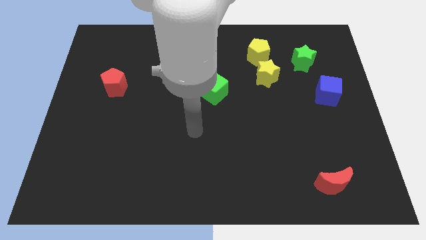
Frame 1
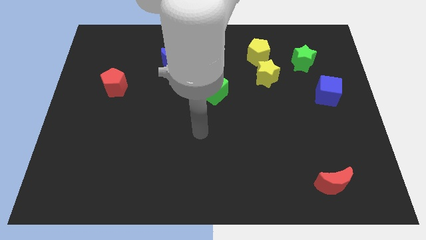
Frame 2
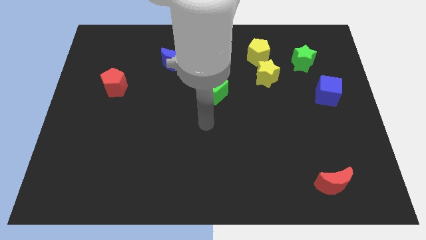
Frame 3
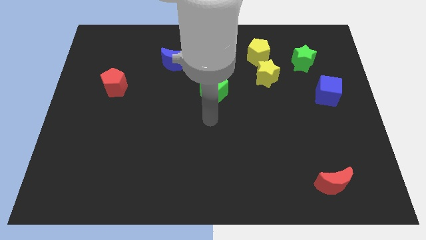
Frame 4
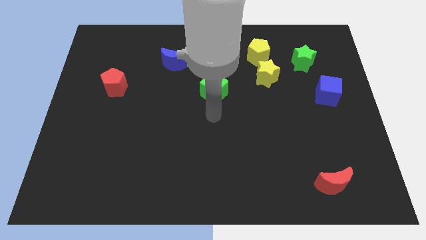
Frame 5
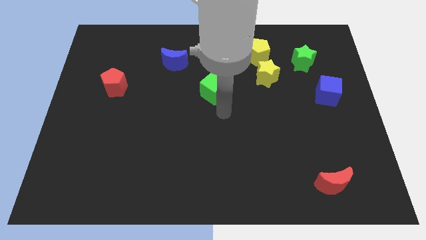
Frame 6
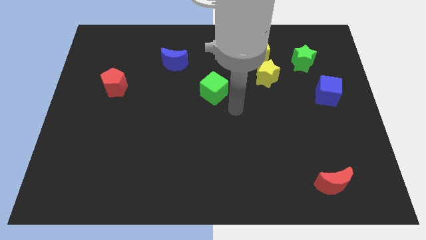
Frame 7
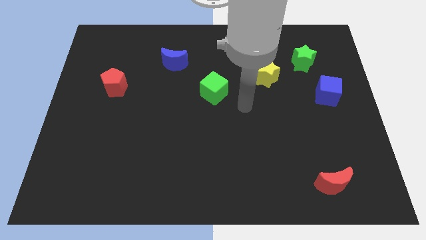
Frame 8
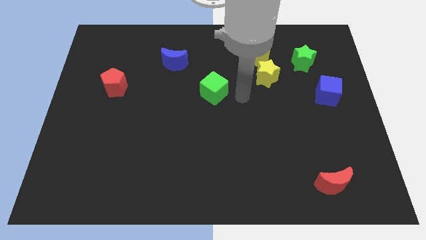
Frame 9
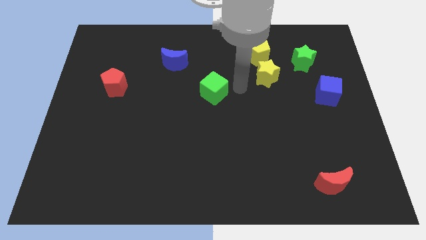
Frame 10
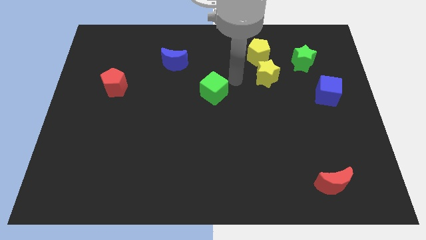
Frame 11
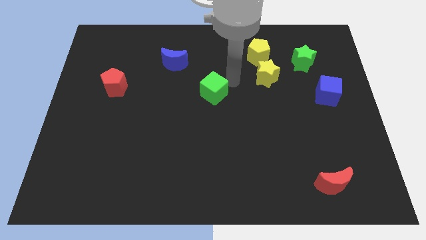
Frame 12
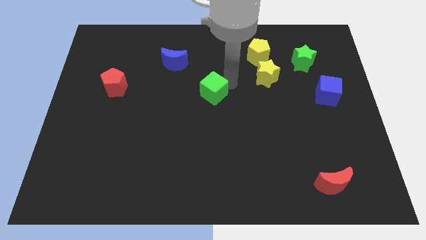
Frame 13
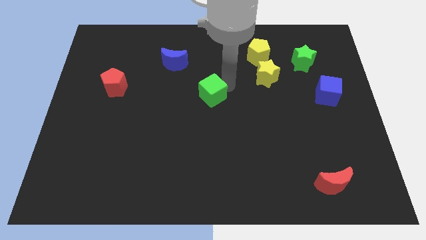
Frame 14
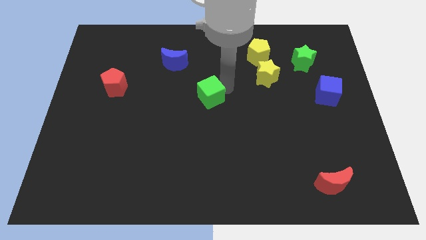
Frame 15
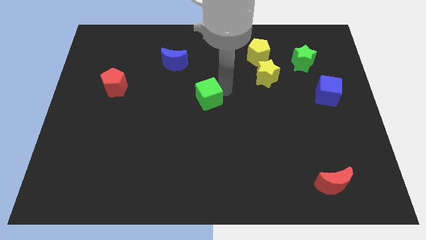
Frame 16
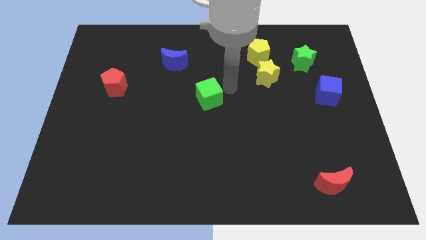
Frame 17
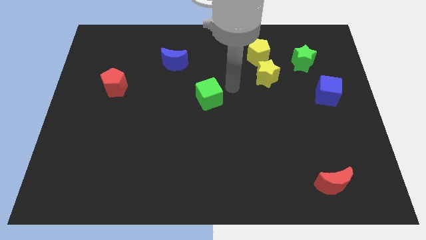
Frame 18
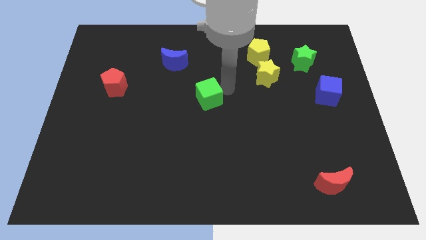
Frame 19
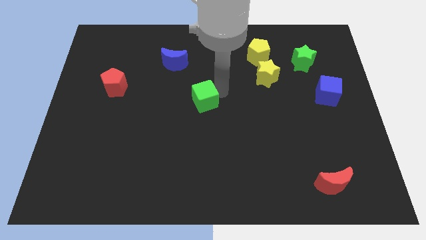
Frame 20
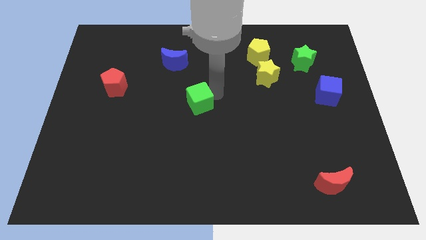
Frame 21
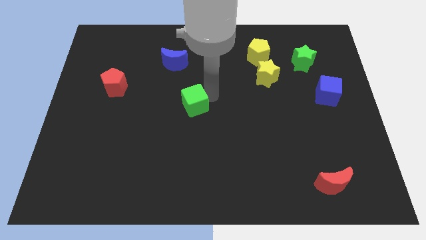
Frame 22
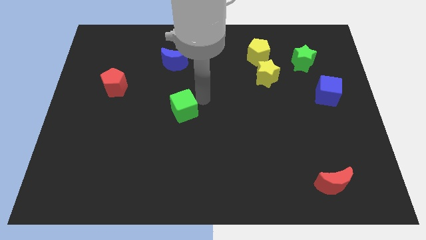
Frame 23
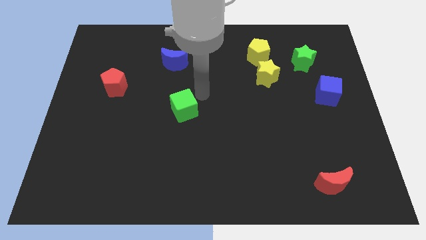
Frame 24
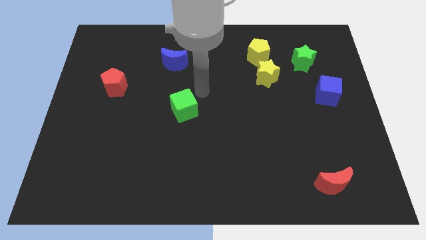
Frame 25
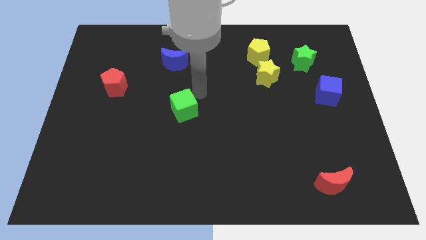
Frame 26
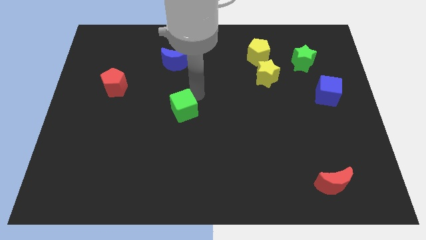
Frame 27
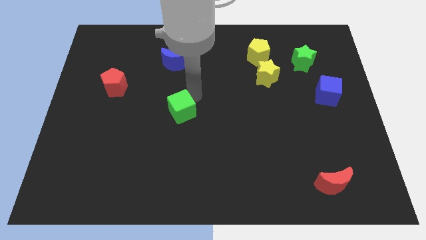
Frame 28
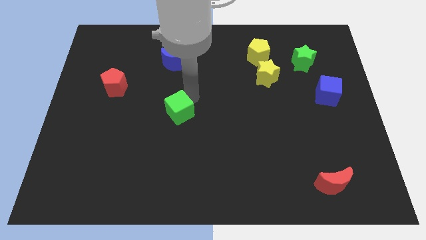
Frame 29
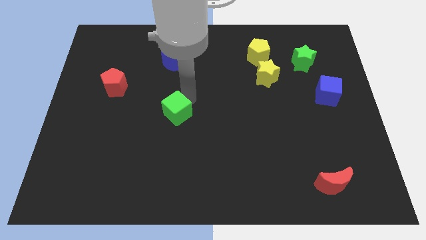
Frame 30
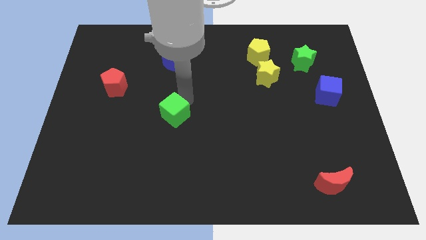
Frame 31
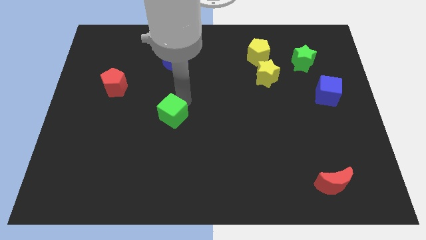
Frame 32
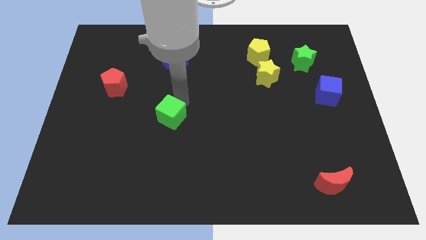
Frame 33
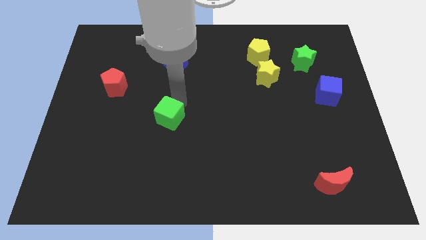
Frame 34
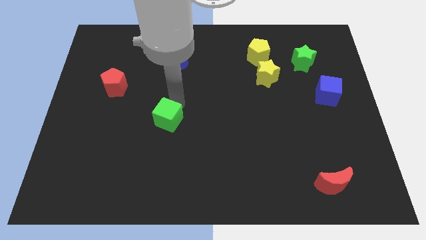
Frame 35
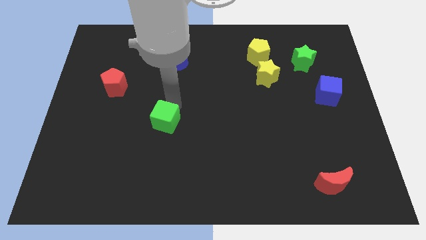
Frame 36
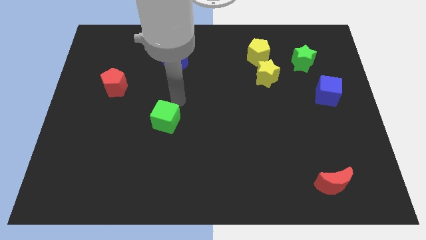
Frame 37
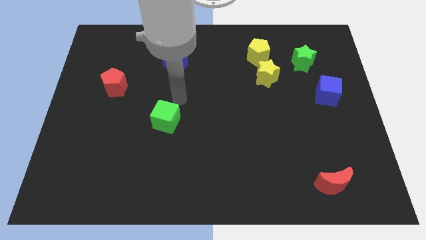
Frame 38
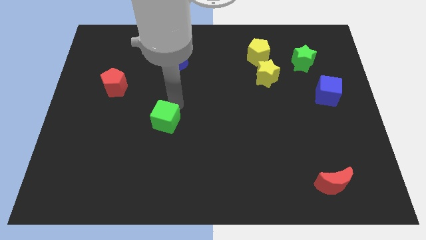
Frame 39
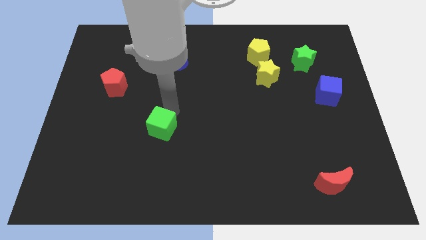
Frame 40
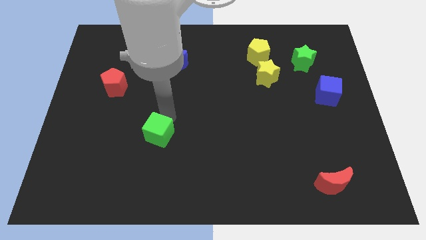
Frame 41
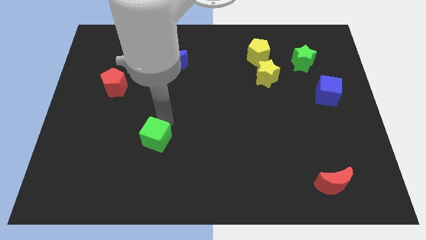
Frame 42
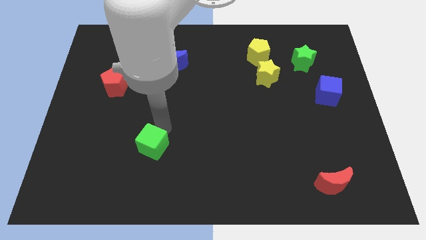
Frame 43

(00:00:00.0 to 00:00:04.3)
move the green cube downwards and left diagonally

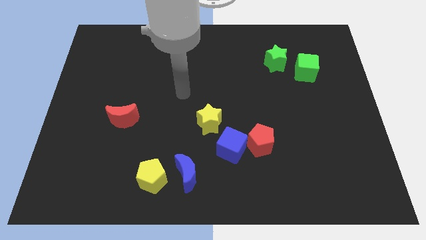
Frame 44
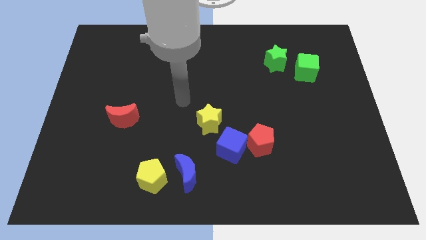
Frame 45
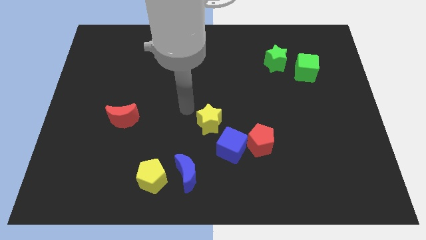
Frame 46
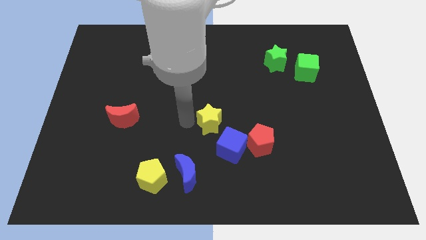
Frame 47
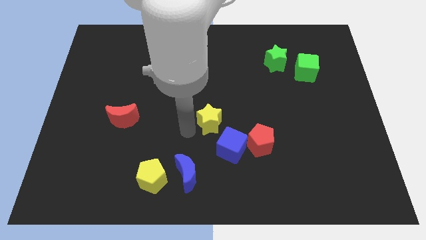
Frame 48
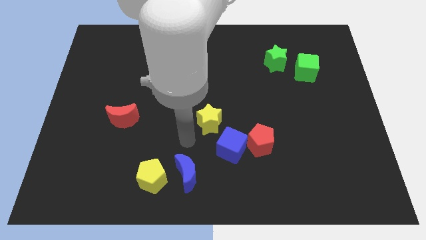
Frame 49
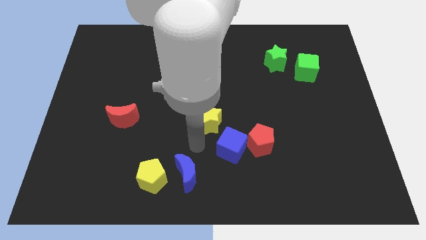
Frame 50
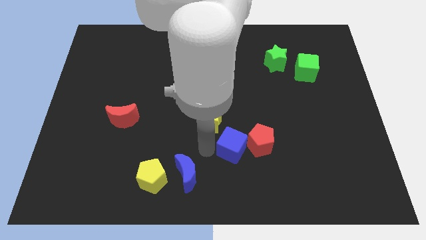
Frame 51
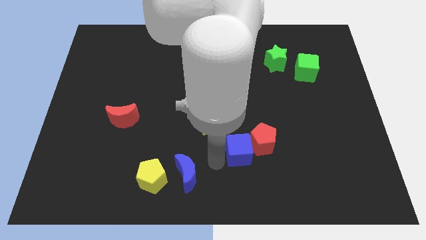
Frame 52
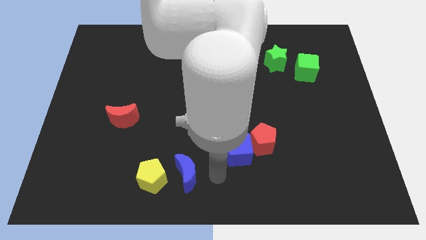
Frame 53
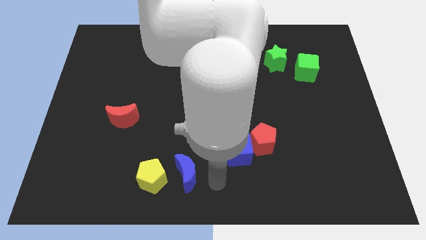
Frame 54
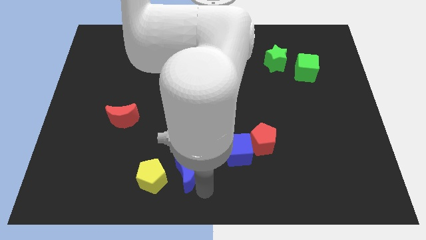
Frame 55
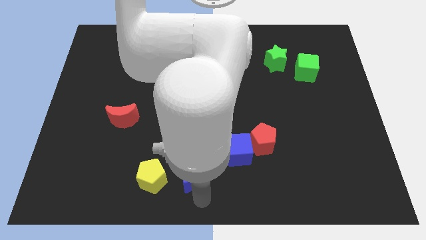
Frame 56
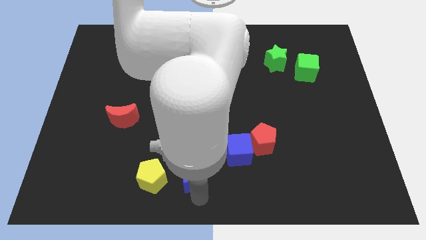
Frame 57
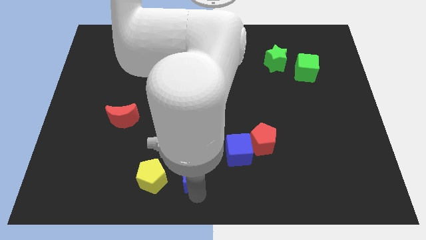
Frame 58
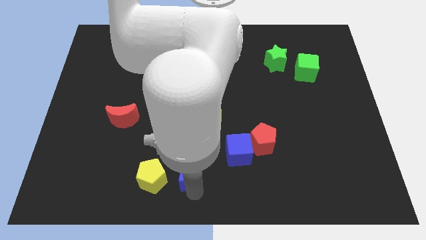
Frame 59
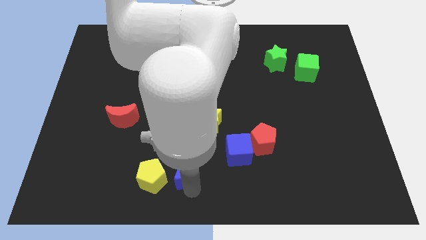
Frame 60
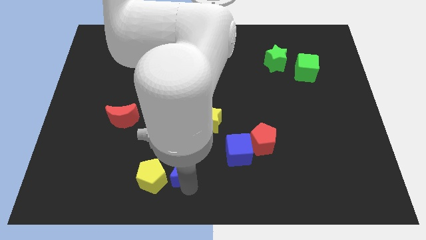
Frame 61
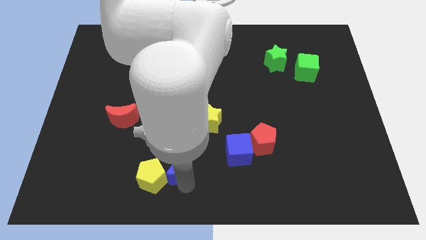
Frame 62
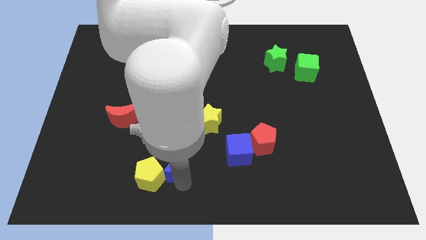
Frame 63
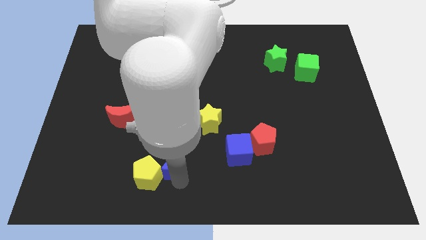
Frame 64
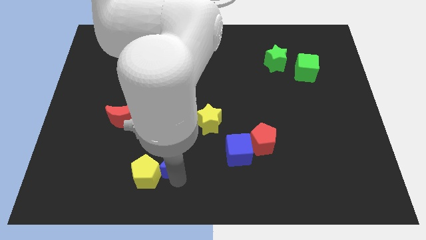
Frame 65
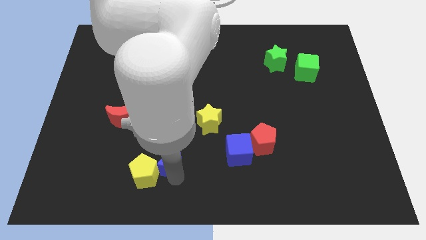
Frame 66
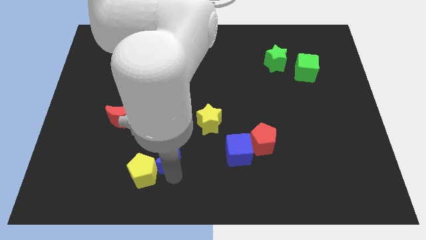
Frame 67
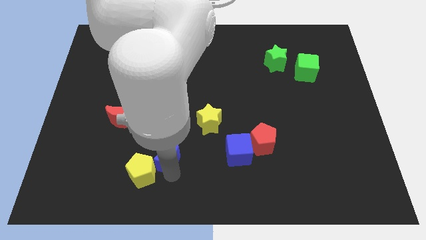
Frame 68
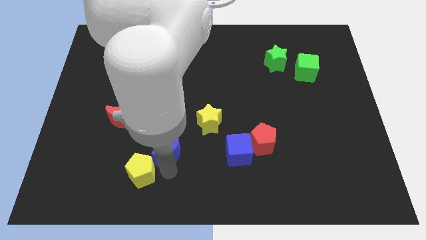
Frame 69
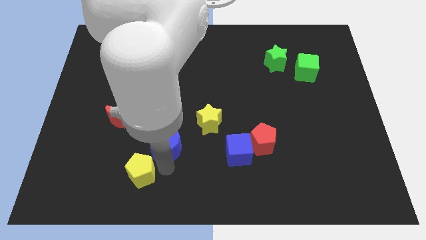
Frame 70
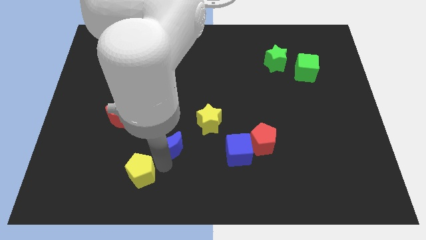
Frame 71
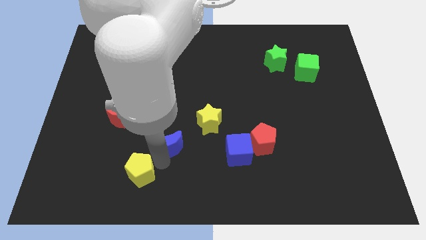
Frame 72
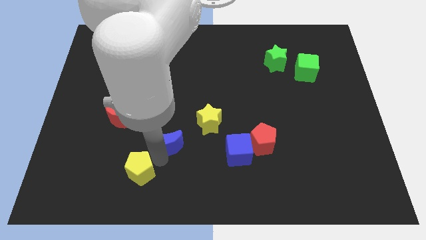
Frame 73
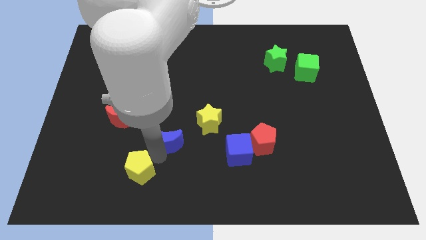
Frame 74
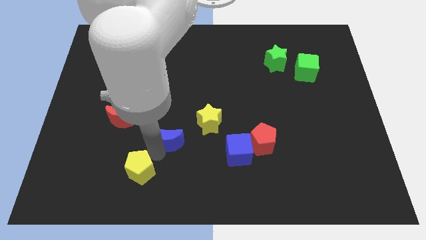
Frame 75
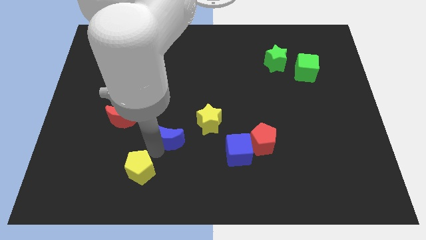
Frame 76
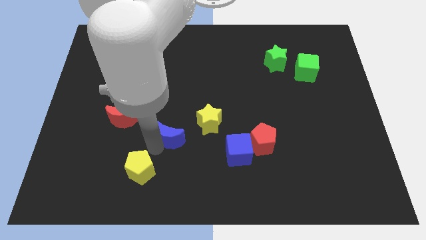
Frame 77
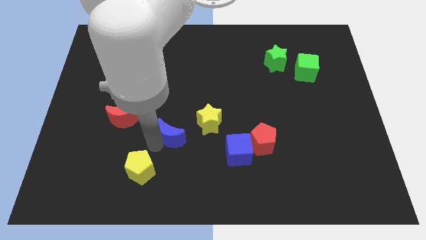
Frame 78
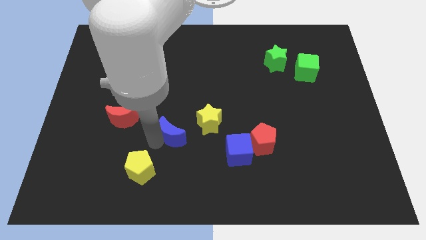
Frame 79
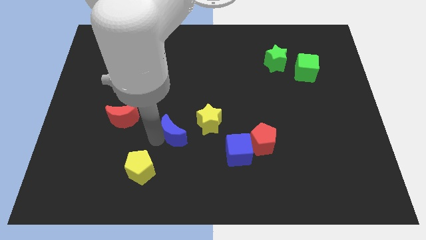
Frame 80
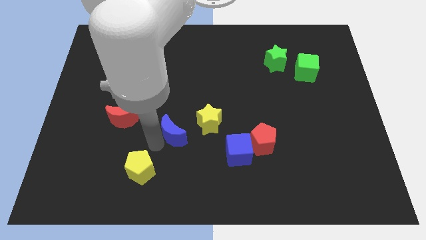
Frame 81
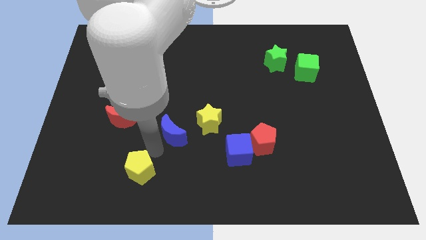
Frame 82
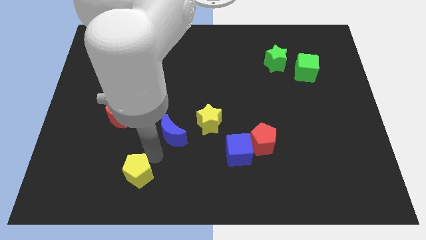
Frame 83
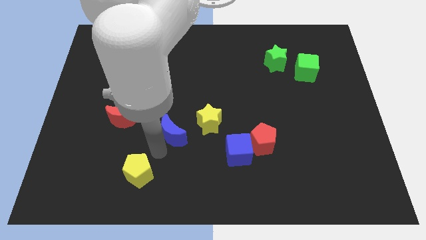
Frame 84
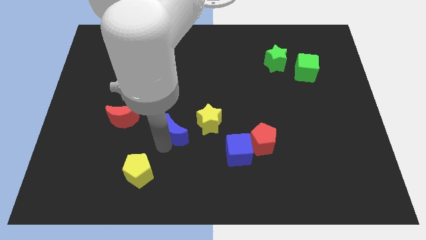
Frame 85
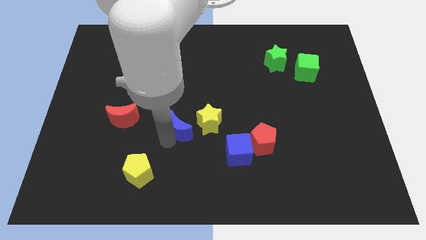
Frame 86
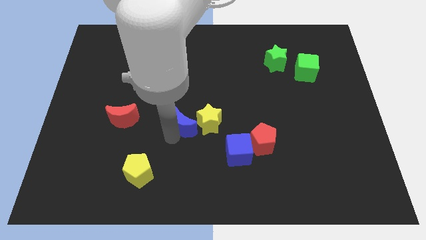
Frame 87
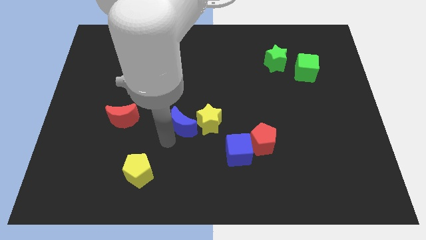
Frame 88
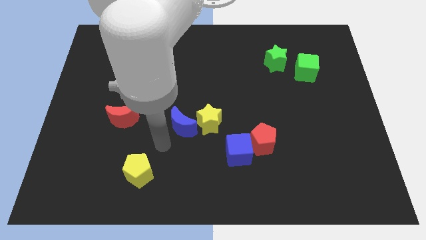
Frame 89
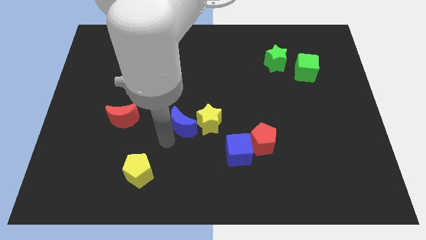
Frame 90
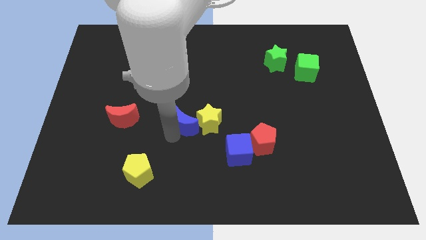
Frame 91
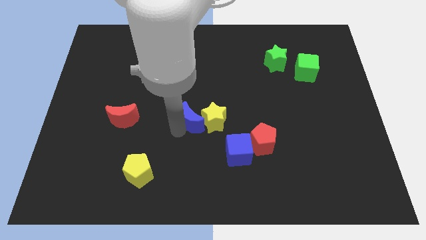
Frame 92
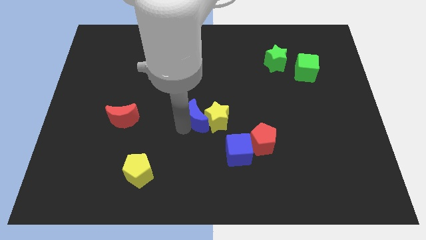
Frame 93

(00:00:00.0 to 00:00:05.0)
slightly slide the blue moon upwards and right
